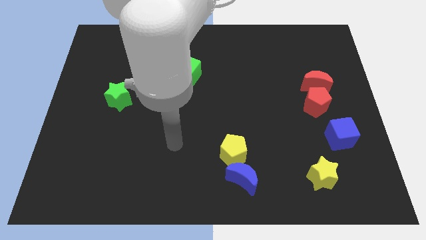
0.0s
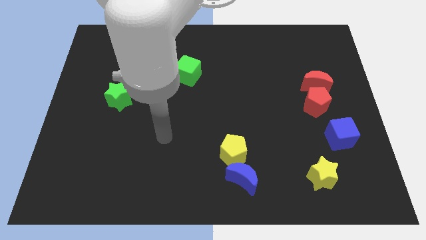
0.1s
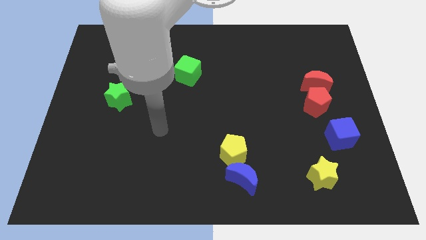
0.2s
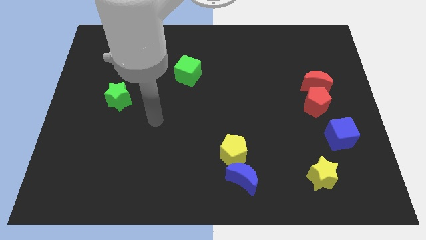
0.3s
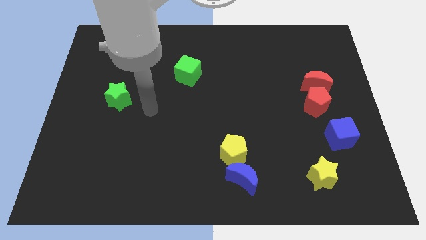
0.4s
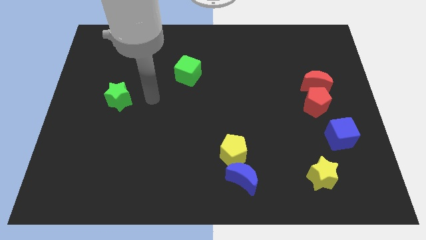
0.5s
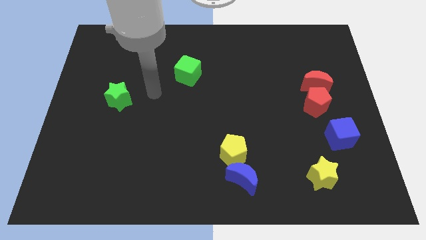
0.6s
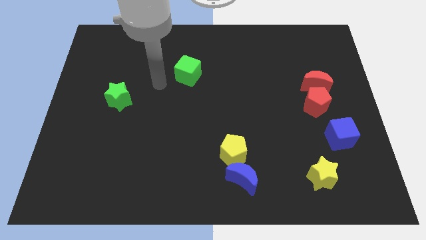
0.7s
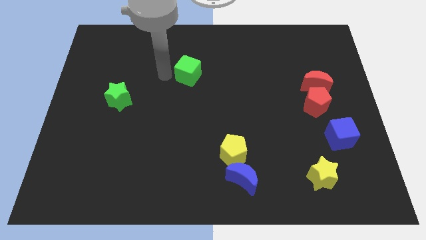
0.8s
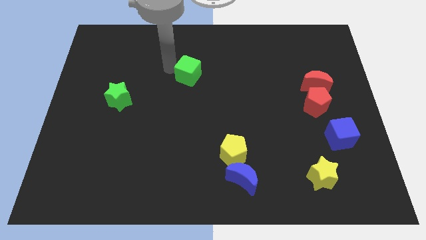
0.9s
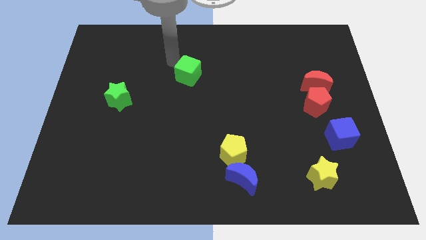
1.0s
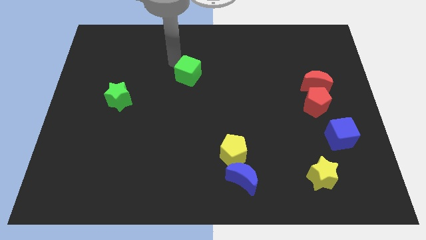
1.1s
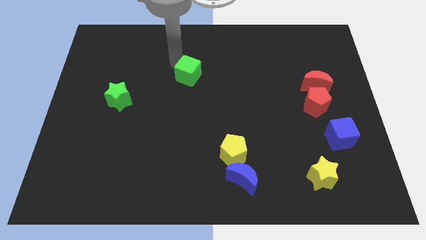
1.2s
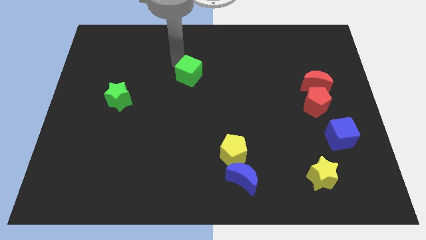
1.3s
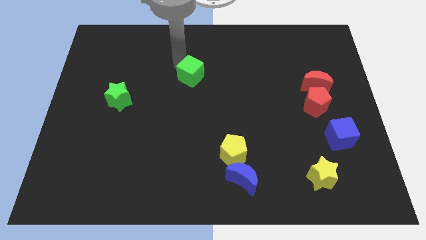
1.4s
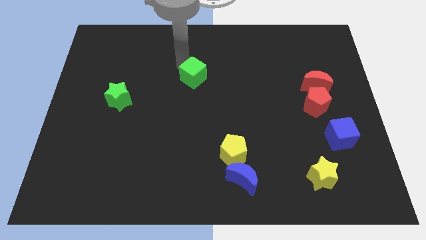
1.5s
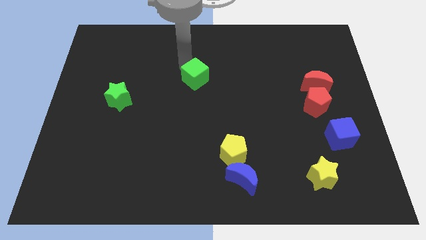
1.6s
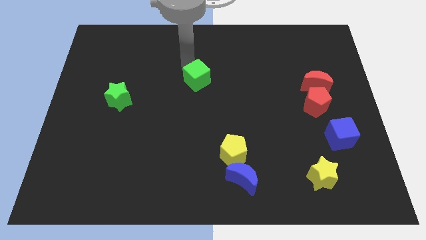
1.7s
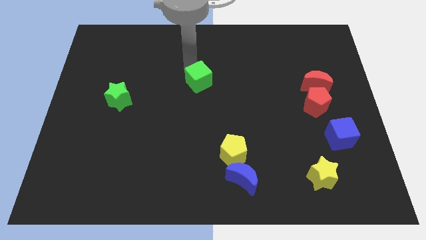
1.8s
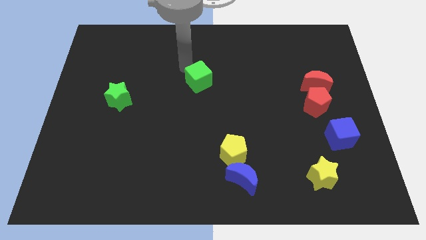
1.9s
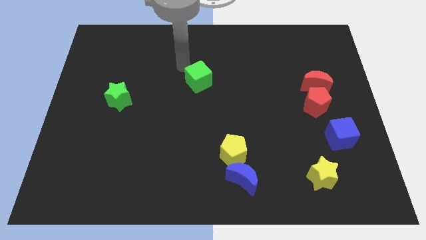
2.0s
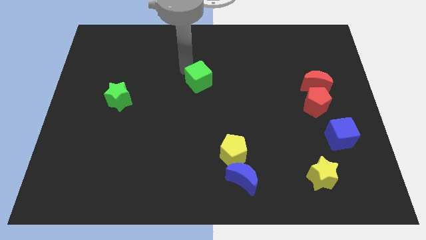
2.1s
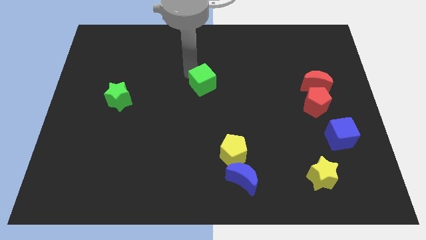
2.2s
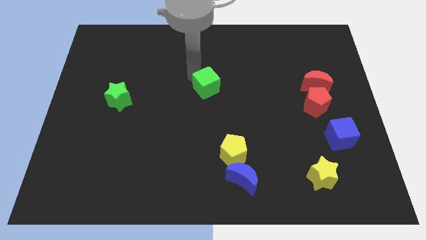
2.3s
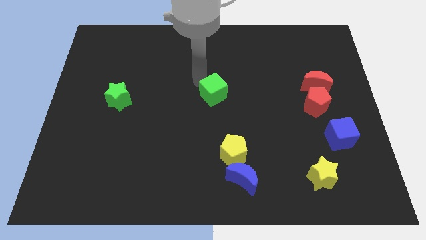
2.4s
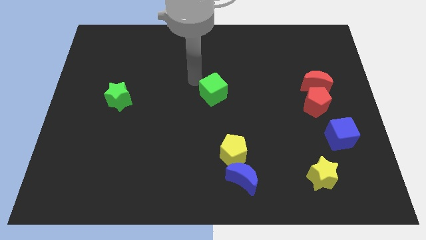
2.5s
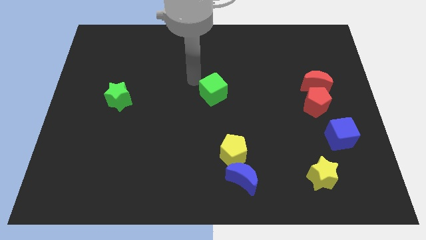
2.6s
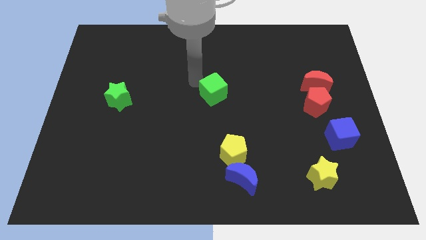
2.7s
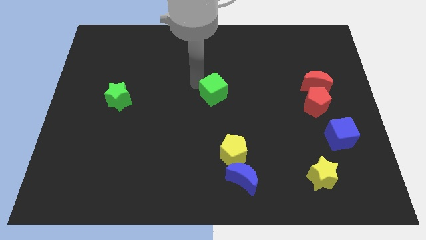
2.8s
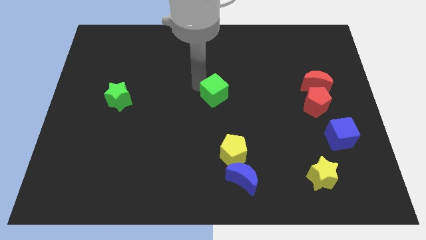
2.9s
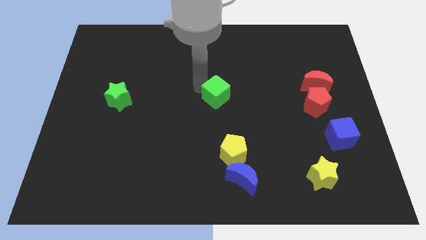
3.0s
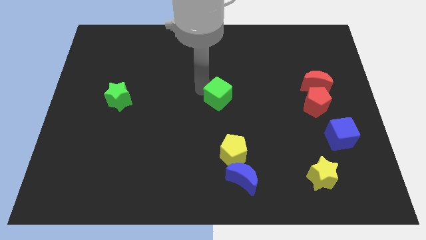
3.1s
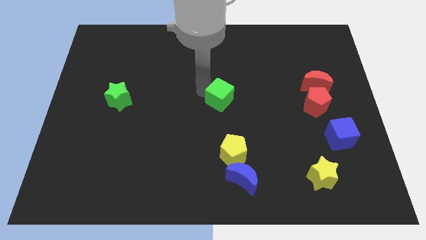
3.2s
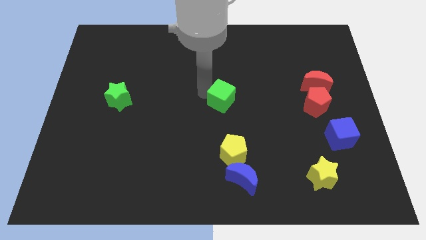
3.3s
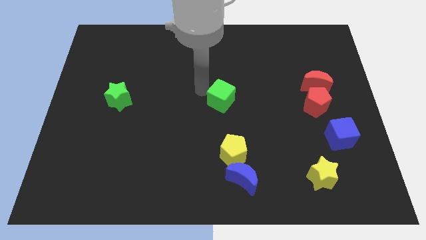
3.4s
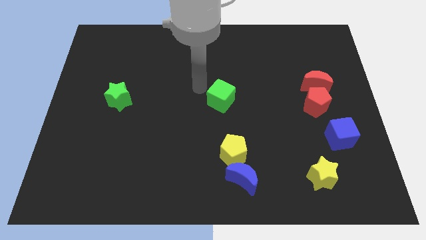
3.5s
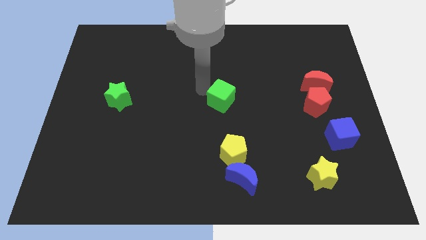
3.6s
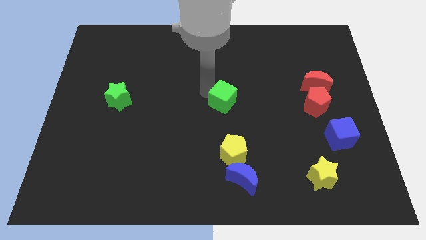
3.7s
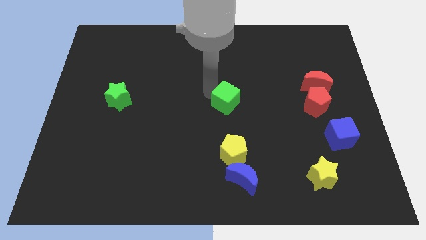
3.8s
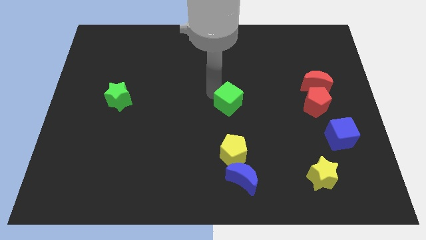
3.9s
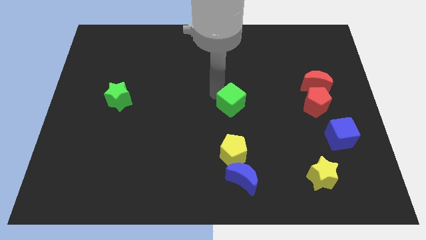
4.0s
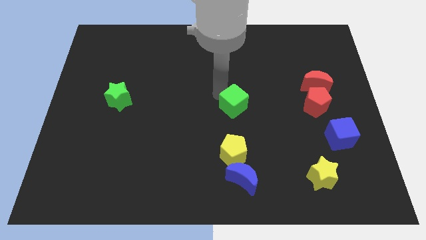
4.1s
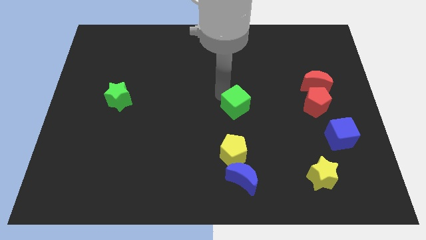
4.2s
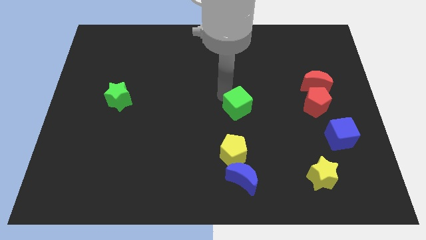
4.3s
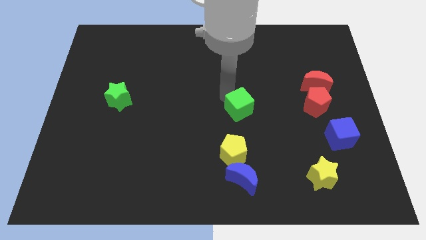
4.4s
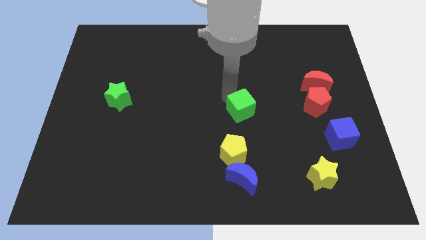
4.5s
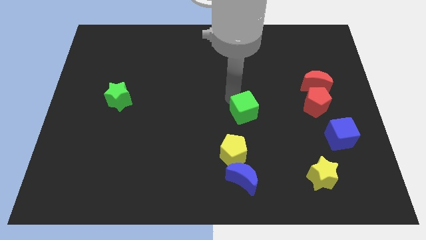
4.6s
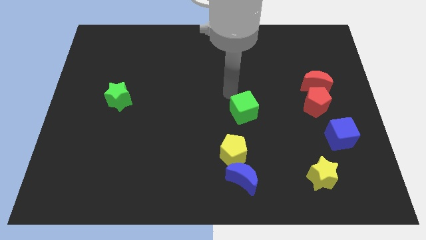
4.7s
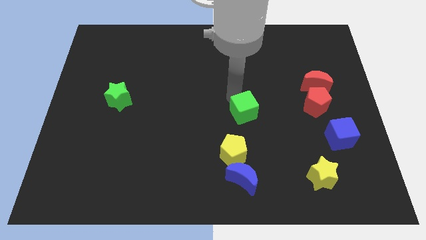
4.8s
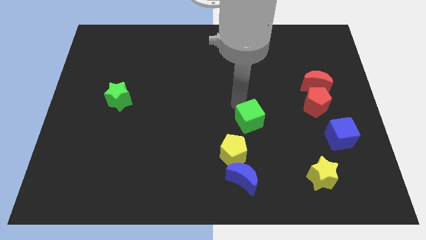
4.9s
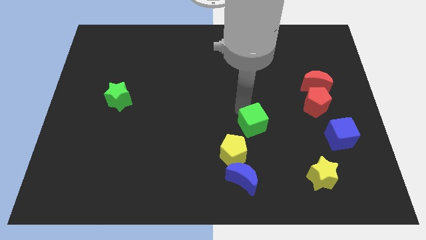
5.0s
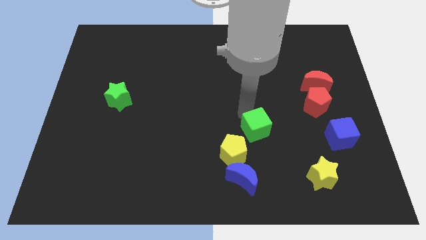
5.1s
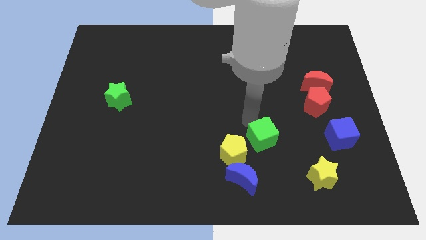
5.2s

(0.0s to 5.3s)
put the green cube right of the yellow pentagon

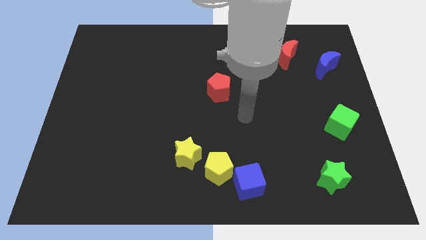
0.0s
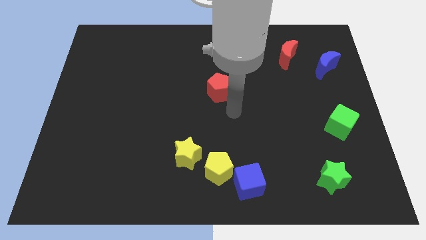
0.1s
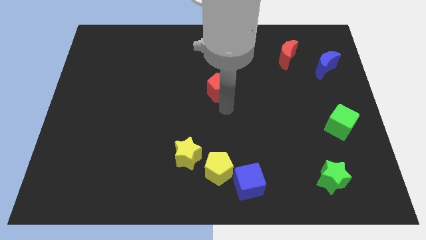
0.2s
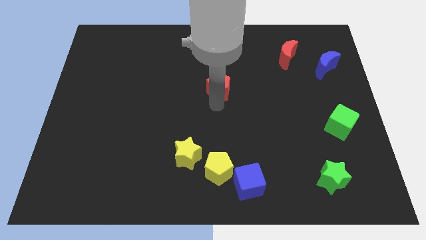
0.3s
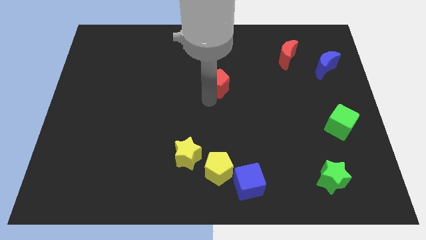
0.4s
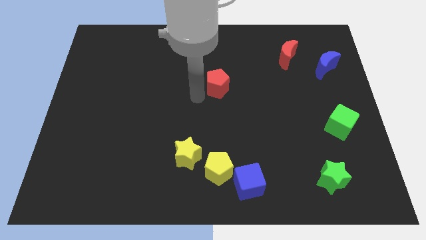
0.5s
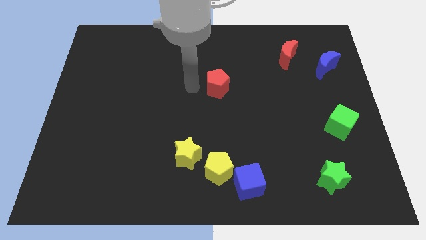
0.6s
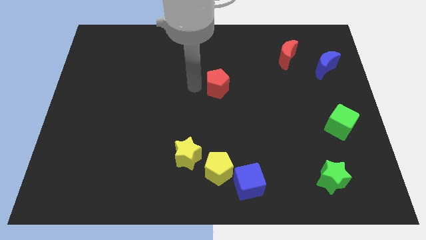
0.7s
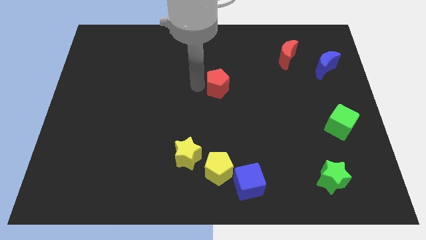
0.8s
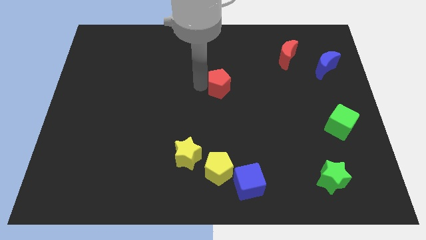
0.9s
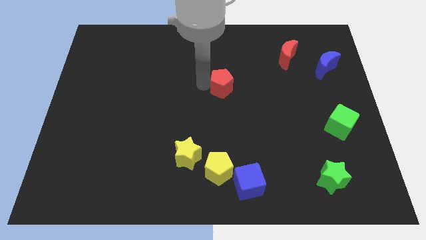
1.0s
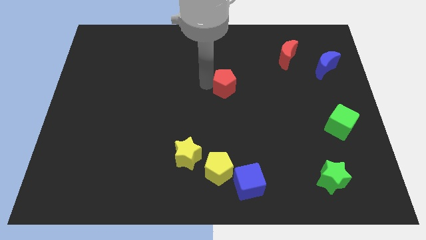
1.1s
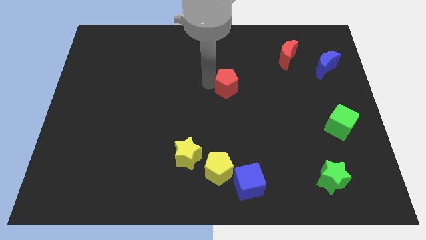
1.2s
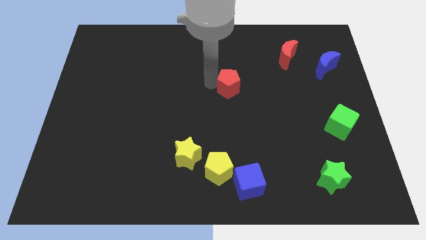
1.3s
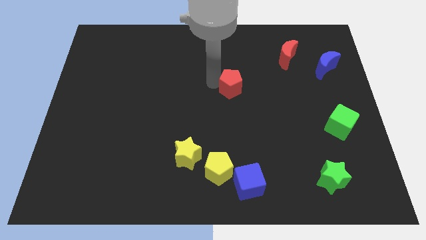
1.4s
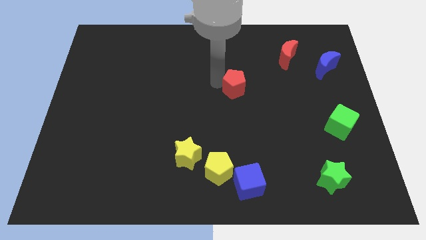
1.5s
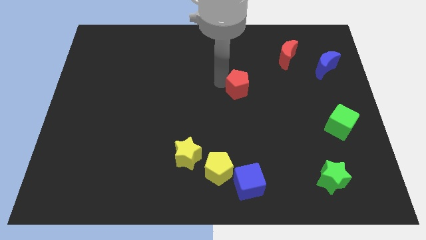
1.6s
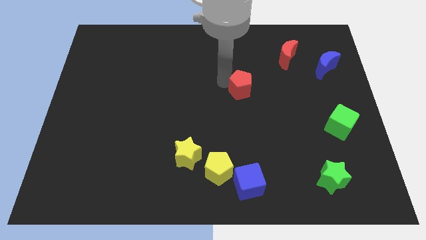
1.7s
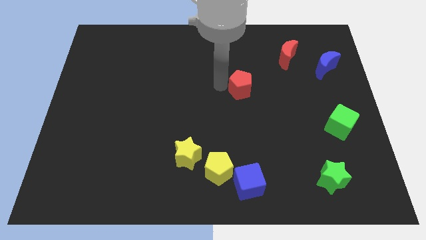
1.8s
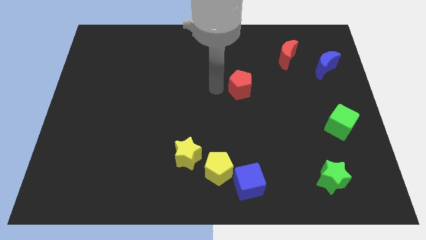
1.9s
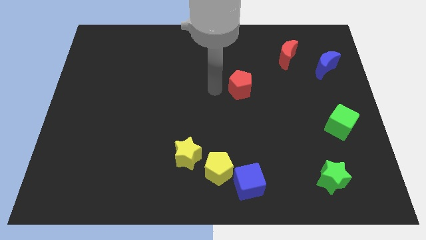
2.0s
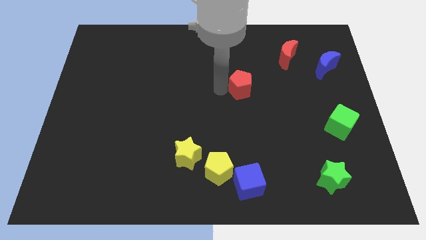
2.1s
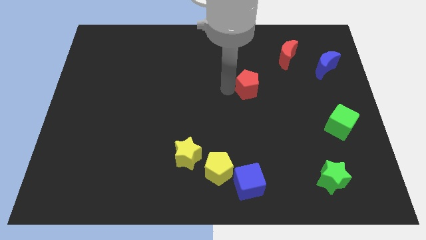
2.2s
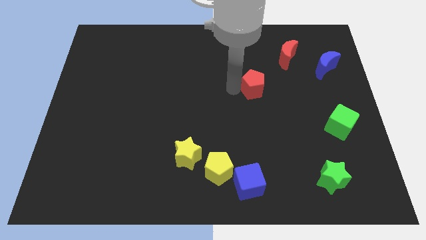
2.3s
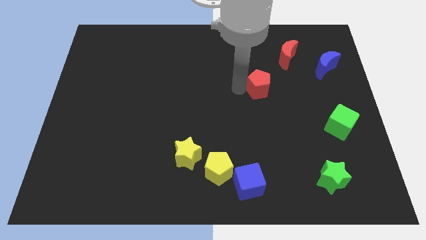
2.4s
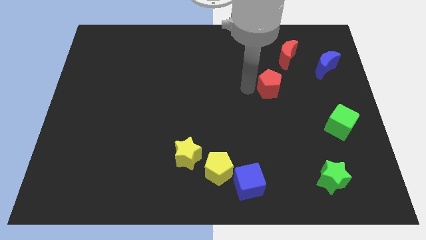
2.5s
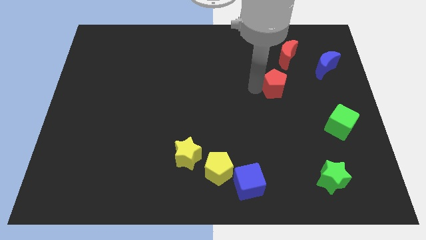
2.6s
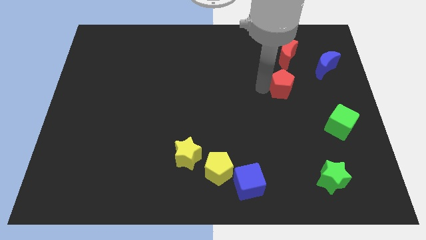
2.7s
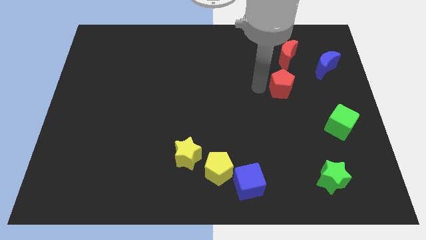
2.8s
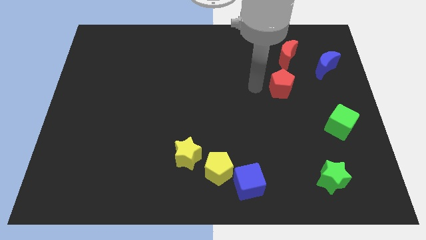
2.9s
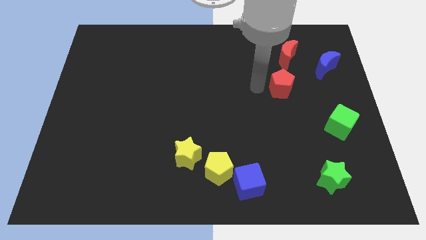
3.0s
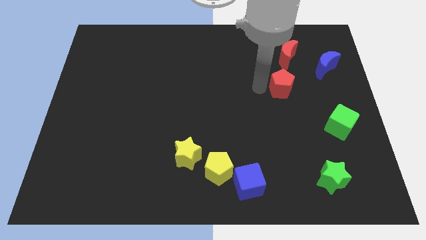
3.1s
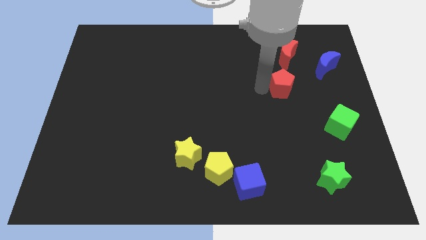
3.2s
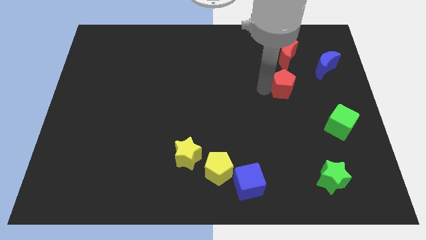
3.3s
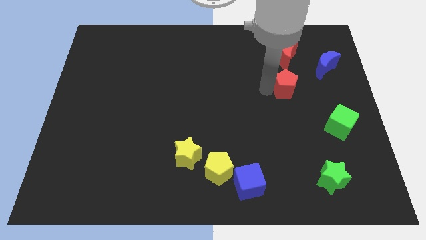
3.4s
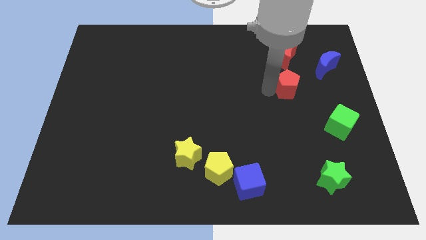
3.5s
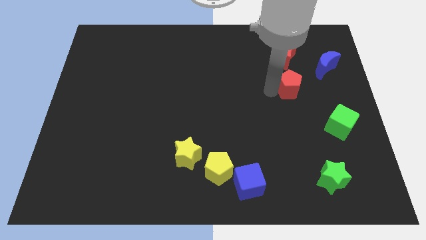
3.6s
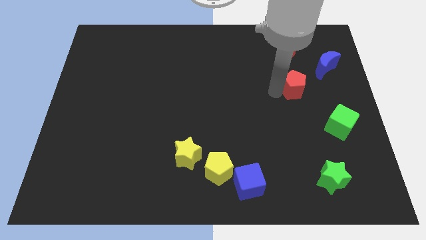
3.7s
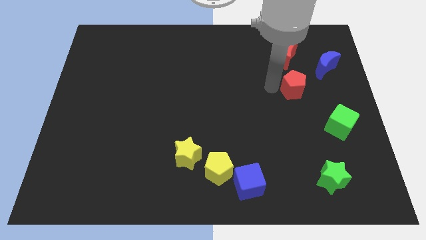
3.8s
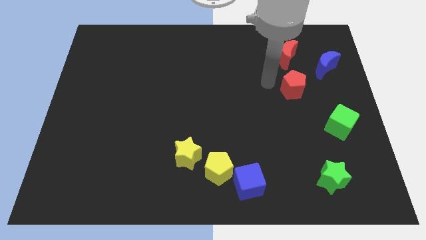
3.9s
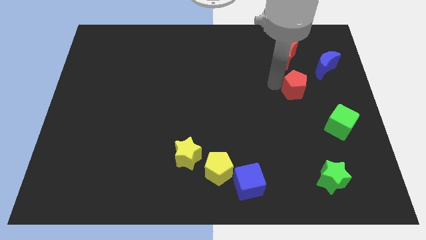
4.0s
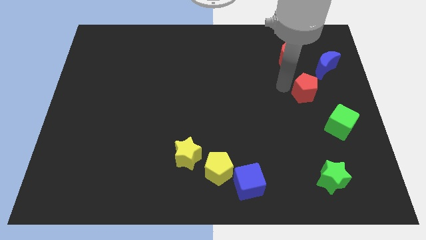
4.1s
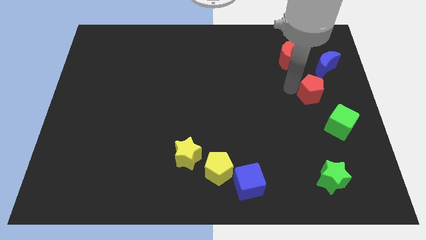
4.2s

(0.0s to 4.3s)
slide the red pentagon to the bottom side of the blue moon
